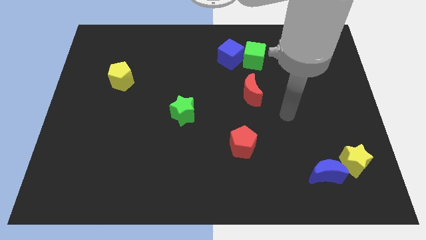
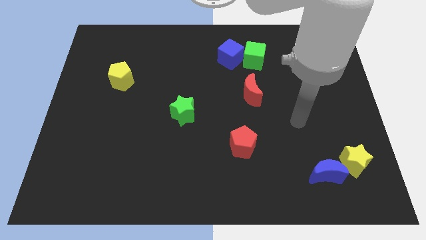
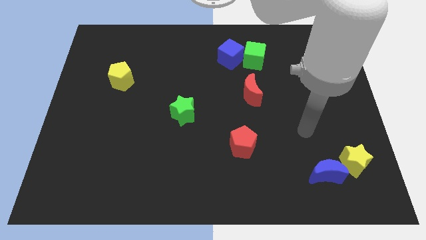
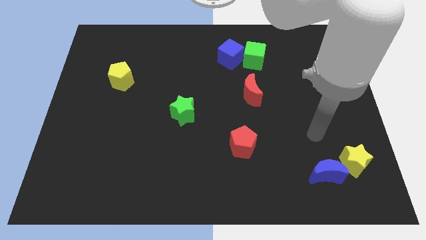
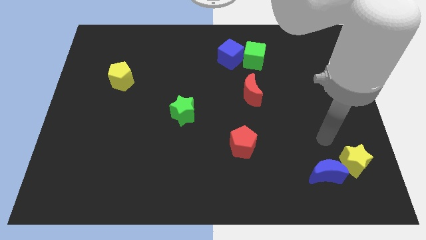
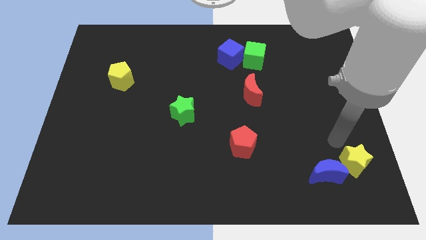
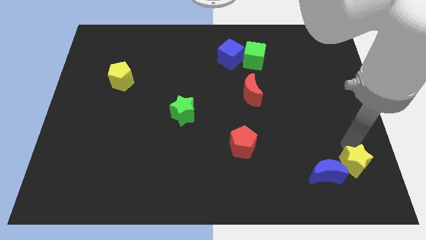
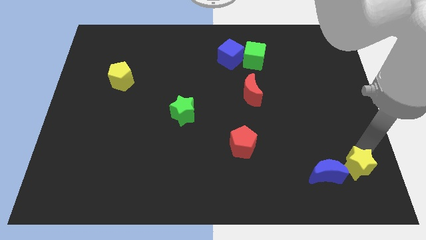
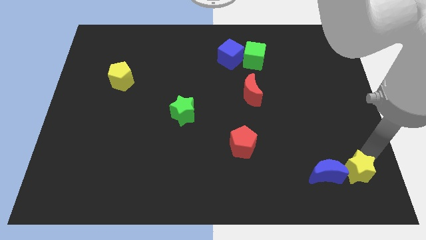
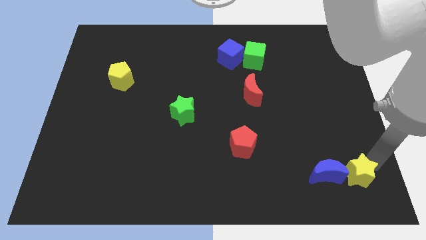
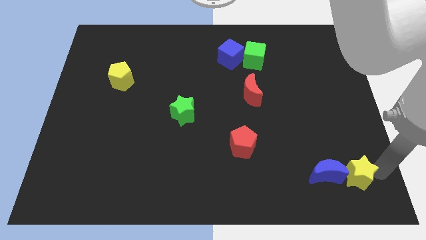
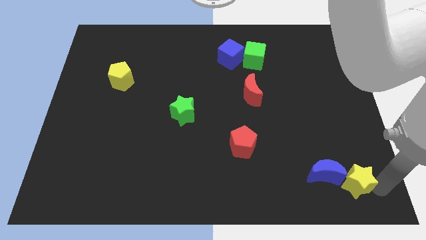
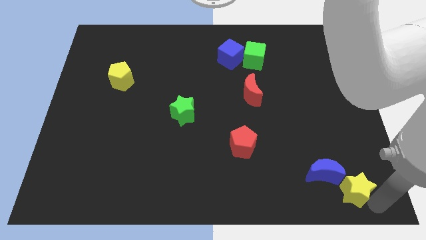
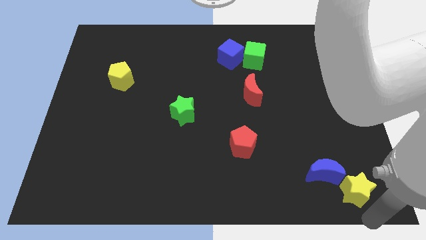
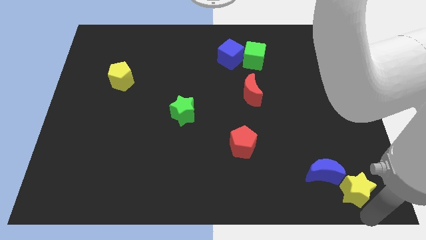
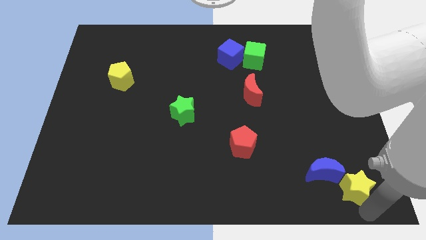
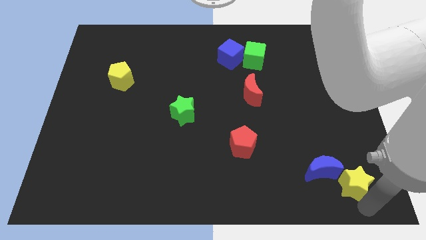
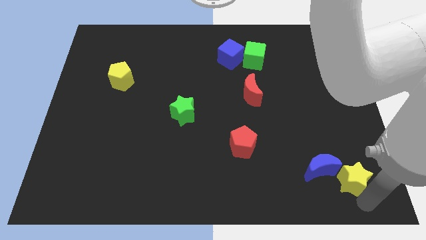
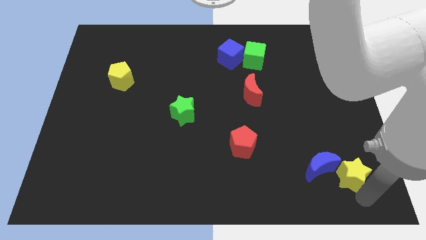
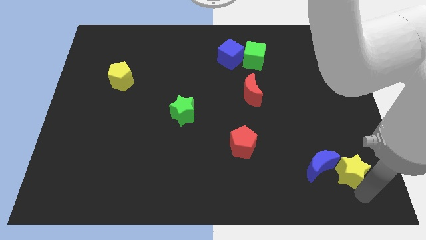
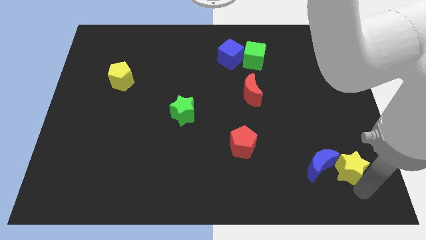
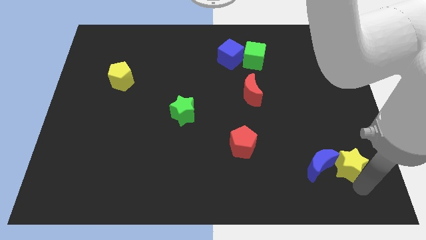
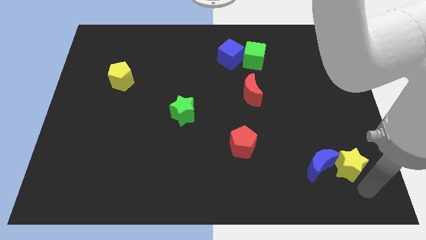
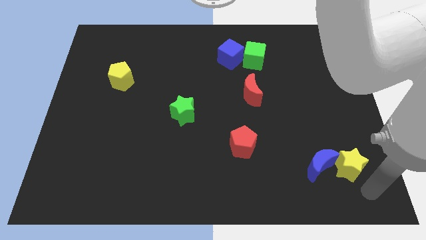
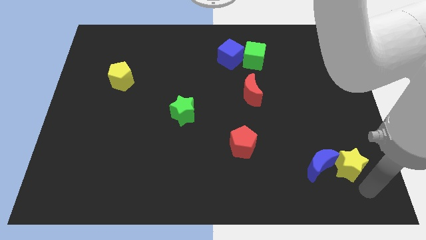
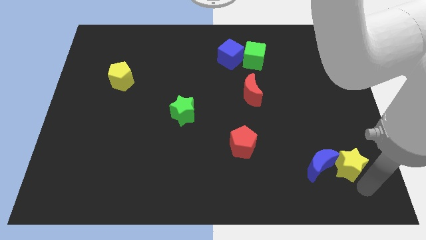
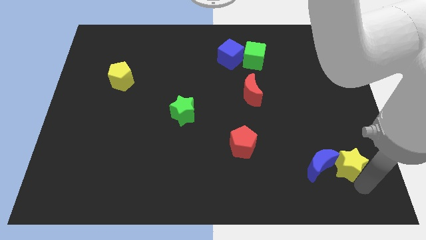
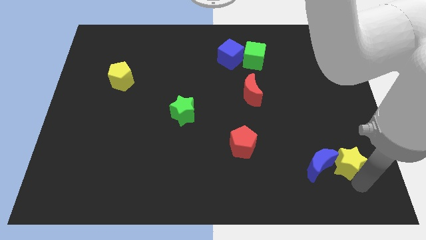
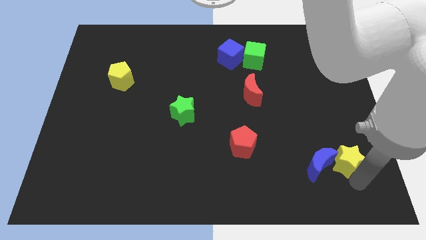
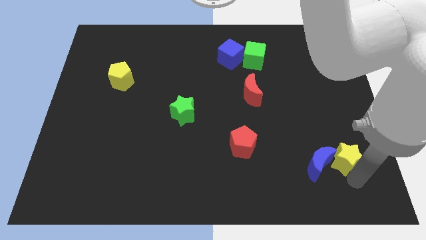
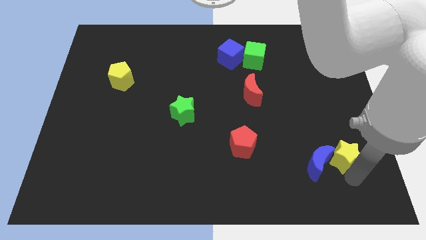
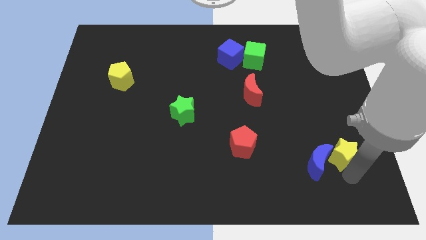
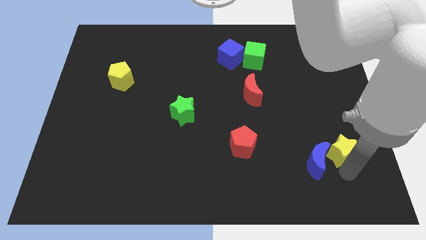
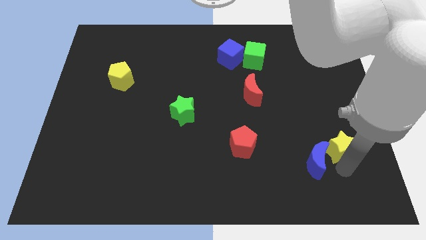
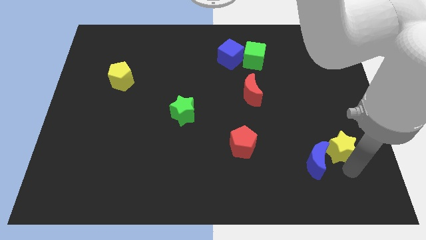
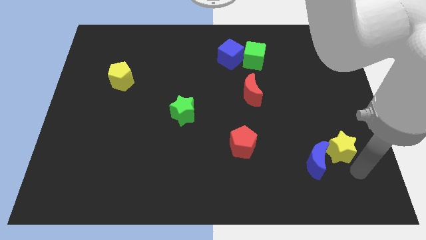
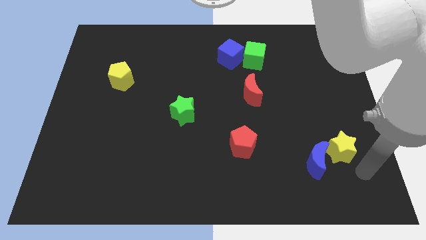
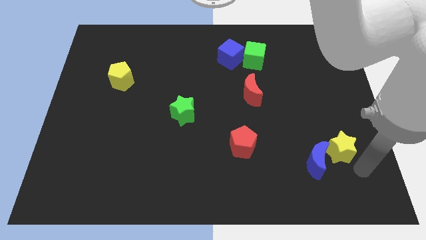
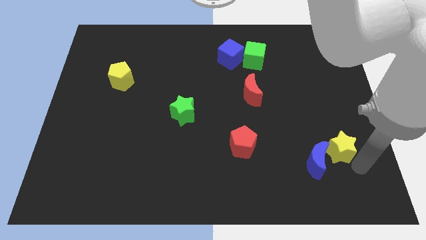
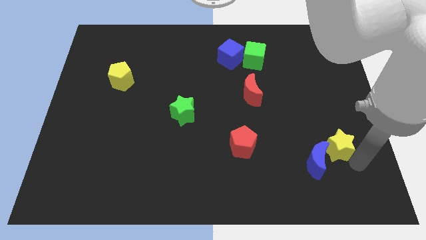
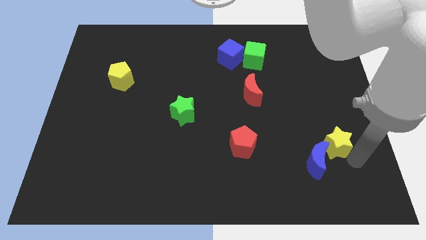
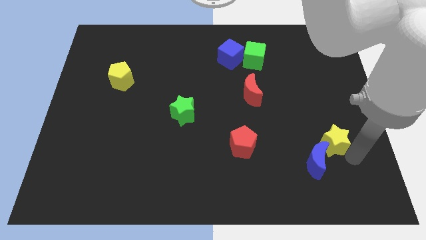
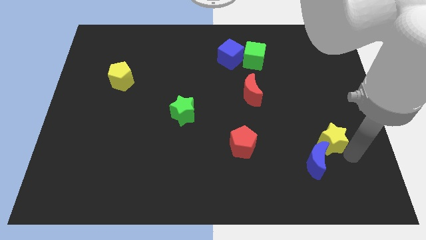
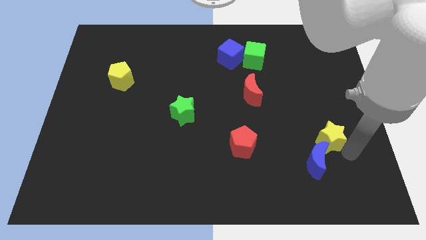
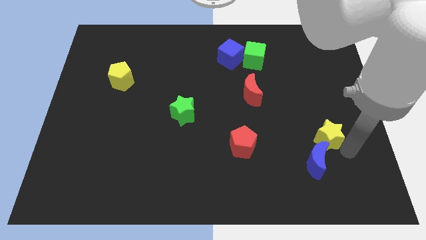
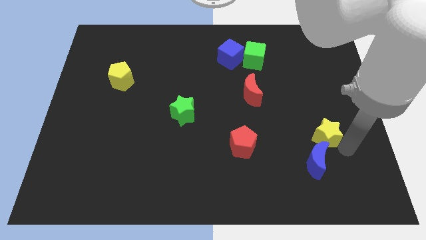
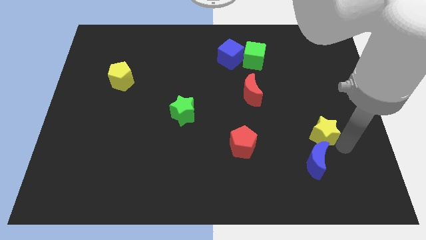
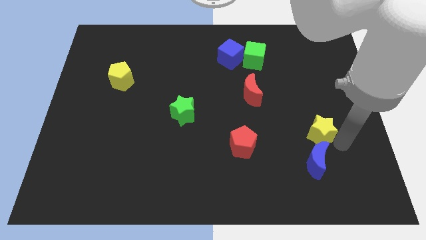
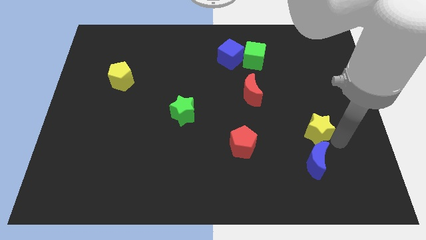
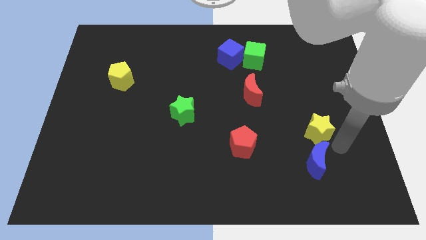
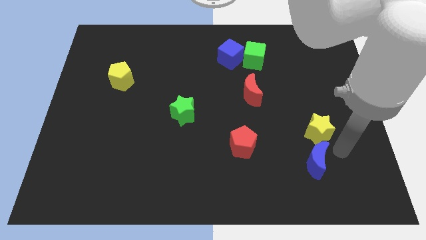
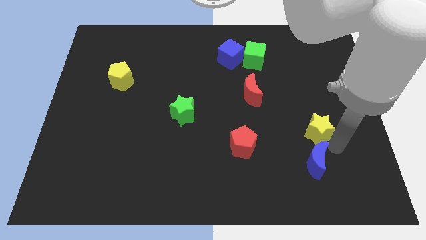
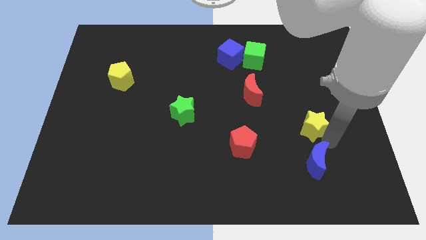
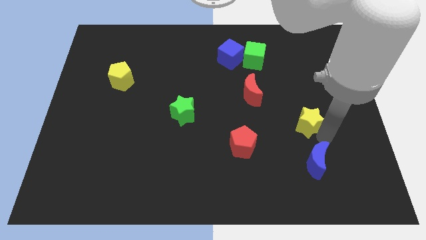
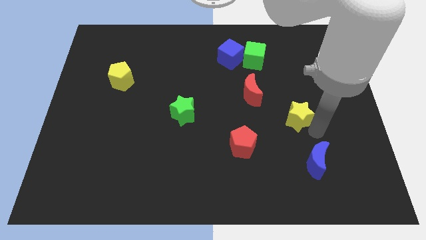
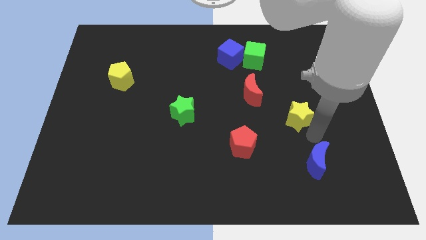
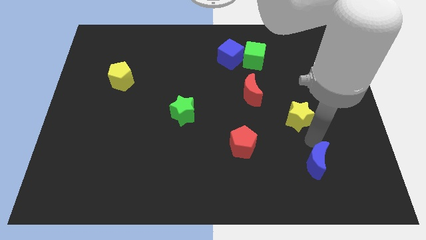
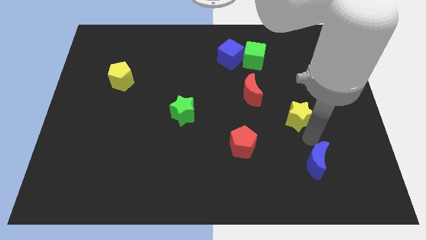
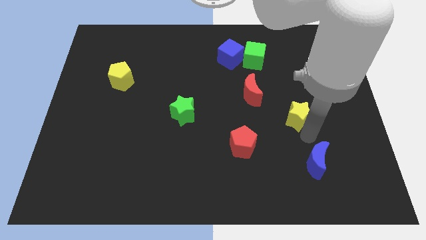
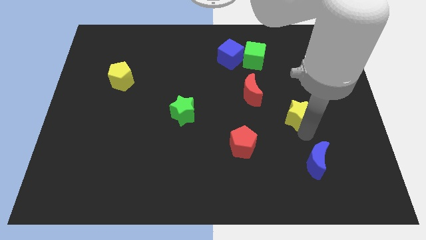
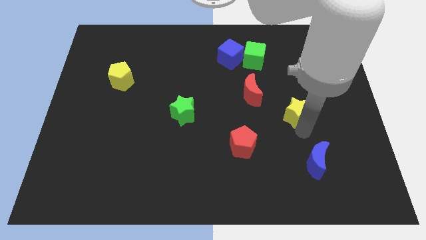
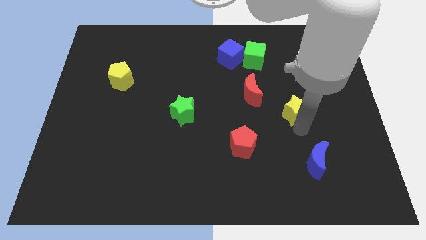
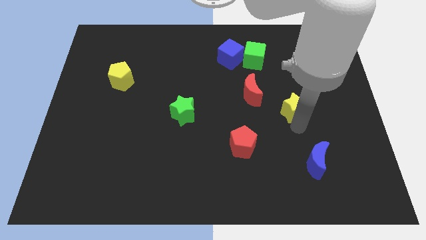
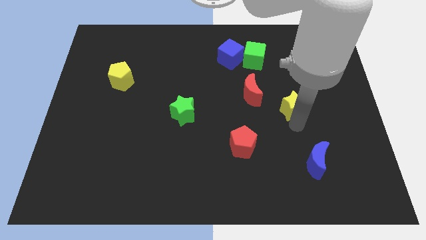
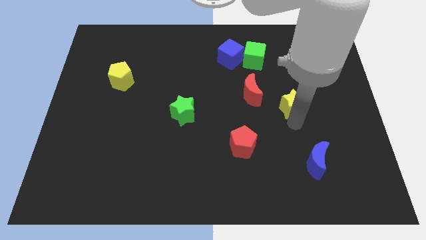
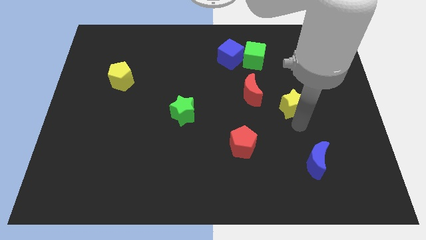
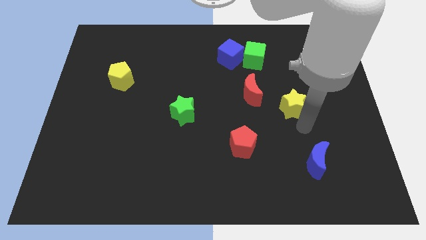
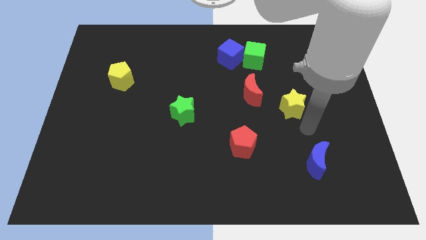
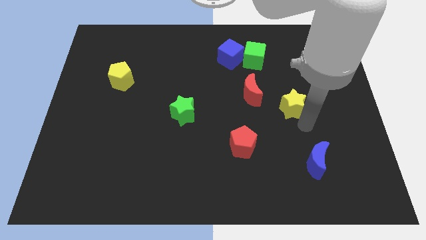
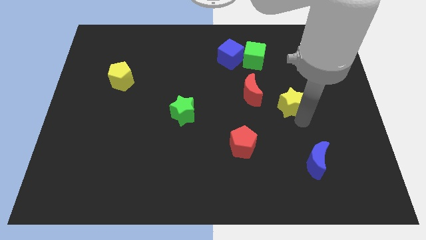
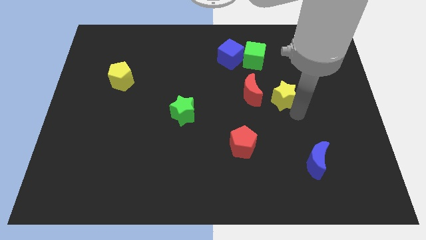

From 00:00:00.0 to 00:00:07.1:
slide the yellow star up and then left

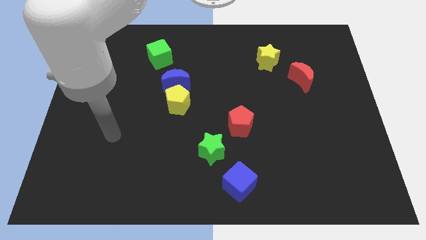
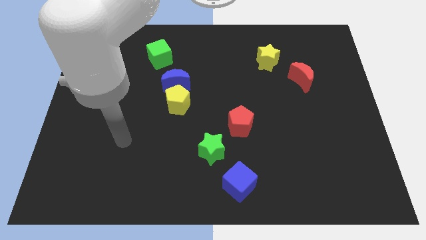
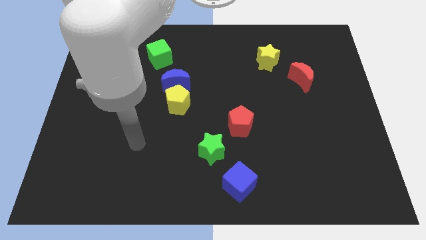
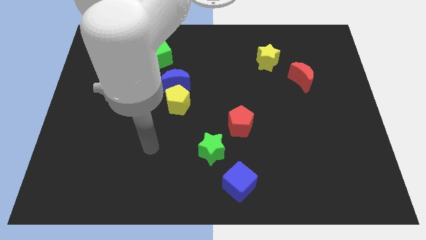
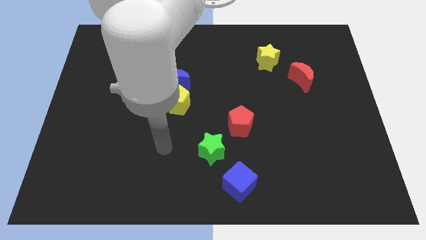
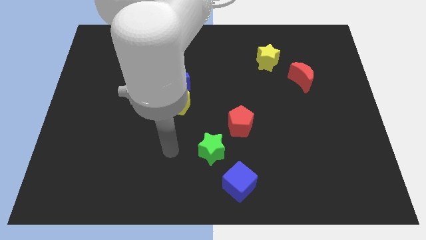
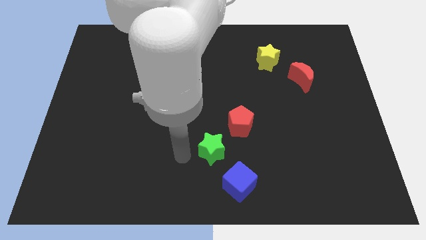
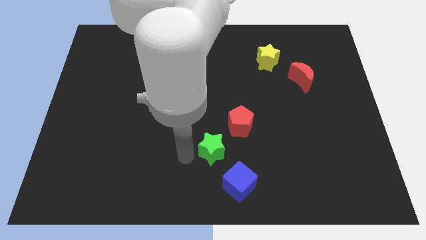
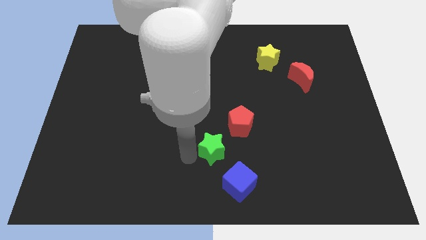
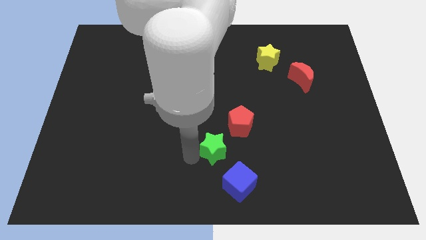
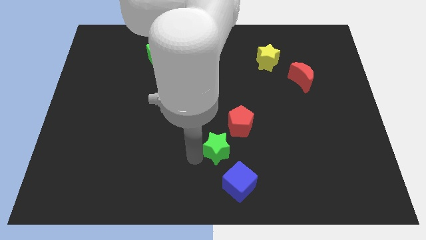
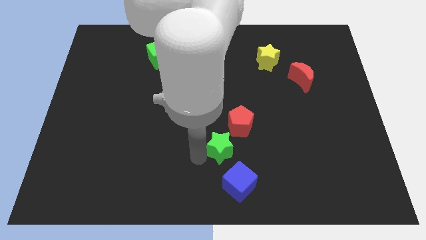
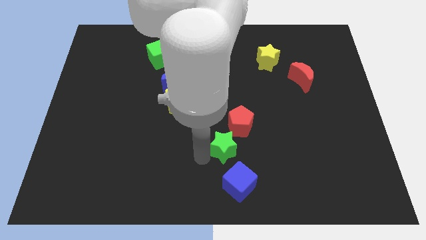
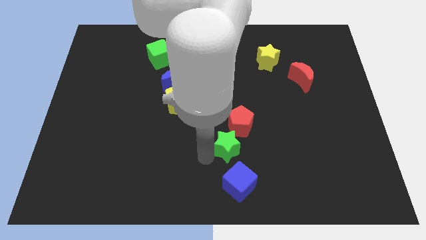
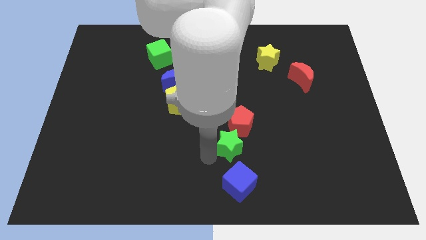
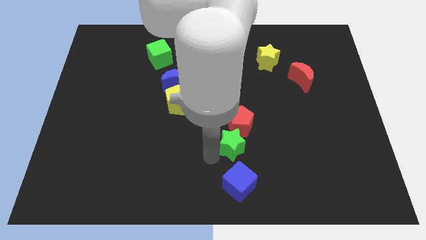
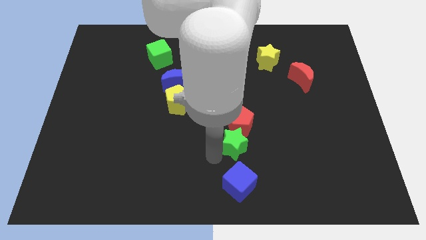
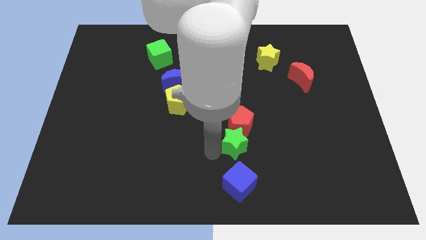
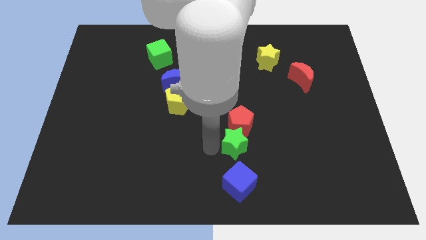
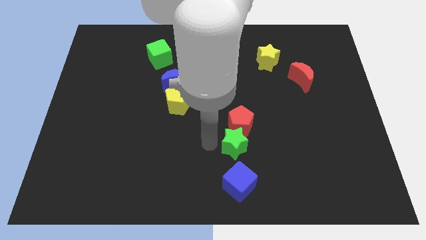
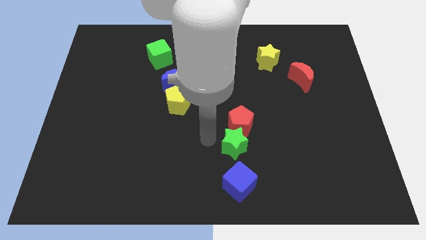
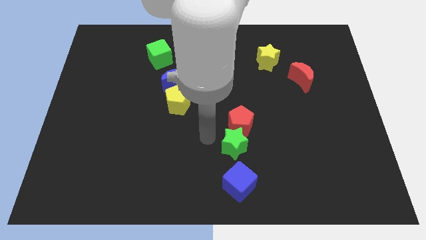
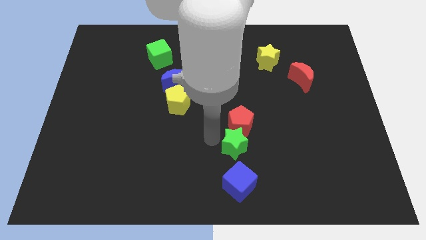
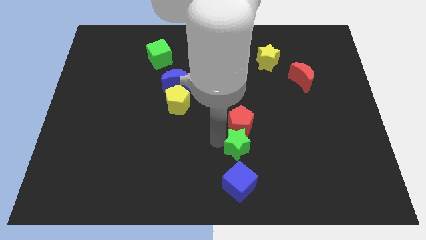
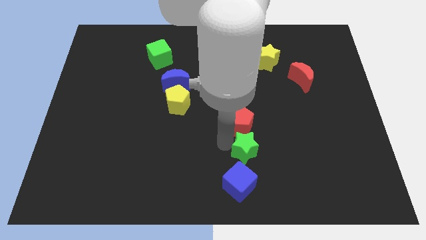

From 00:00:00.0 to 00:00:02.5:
slide the green star somewhat to the right
